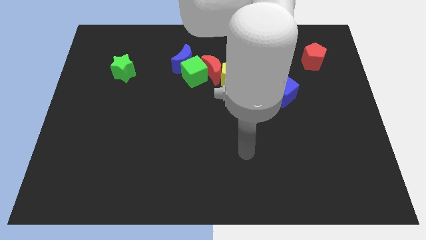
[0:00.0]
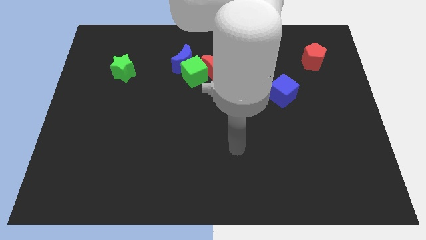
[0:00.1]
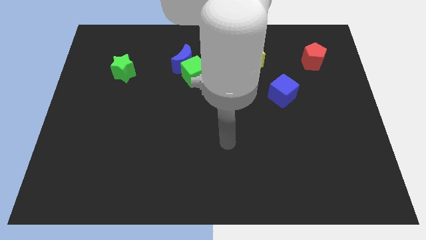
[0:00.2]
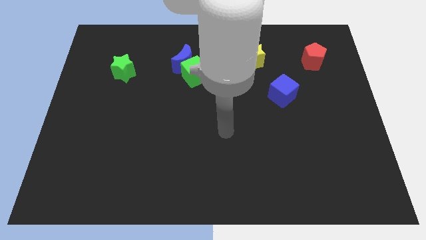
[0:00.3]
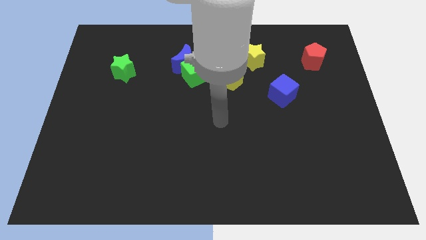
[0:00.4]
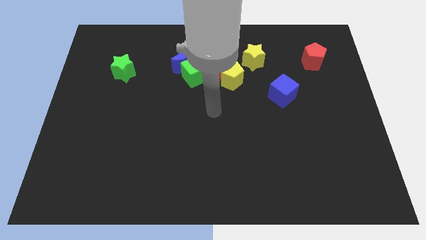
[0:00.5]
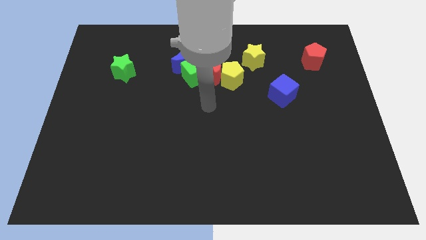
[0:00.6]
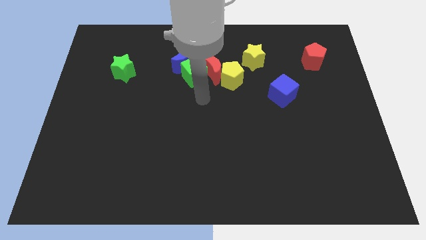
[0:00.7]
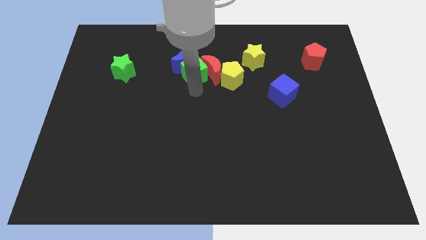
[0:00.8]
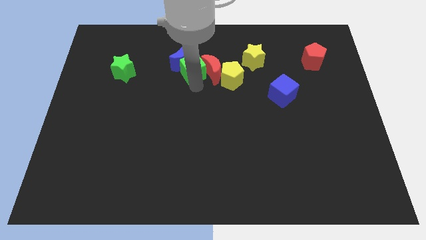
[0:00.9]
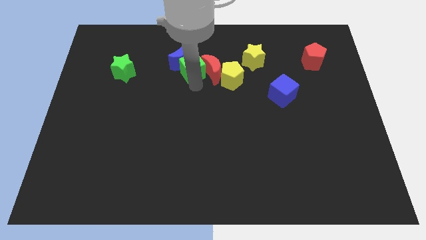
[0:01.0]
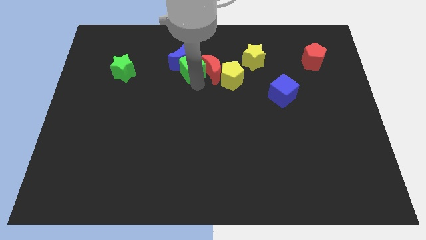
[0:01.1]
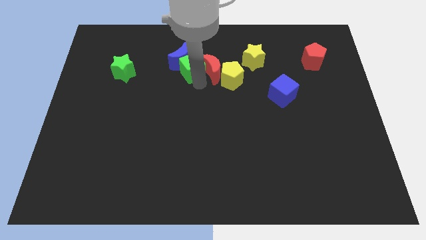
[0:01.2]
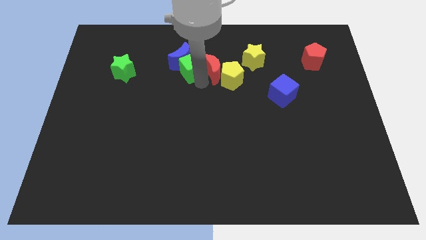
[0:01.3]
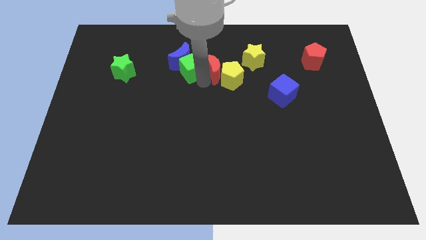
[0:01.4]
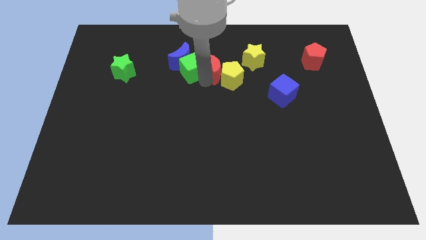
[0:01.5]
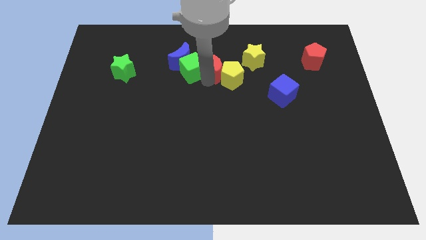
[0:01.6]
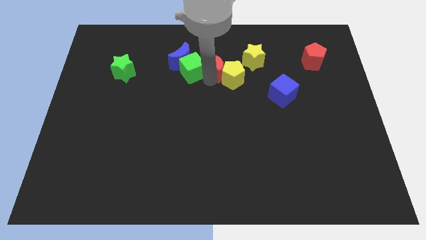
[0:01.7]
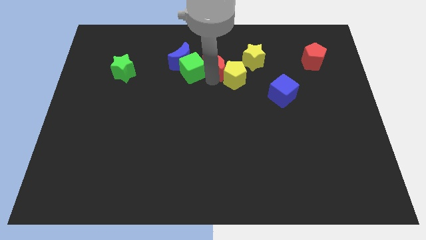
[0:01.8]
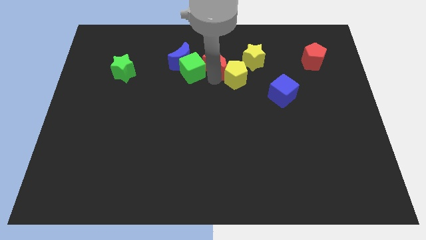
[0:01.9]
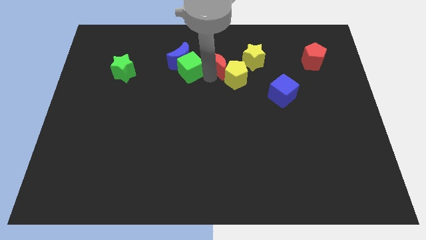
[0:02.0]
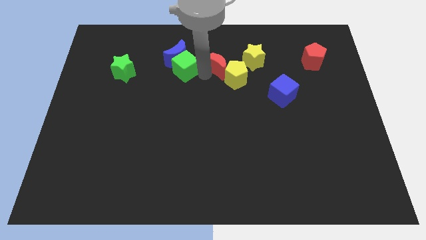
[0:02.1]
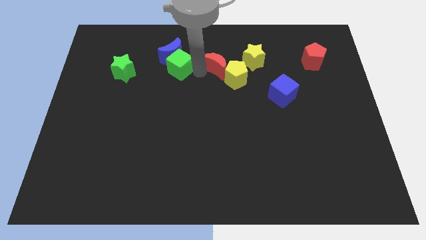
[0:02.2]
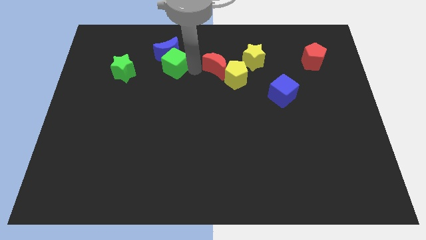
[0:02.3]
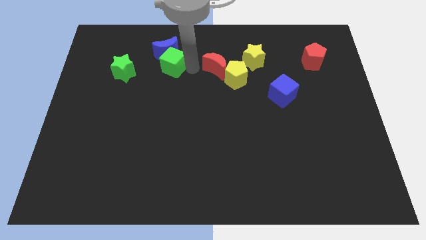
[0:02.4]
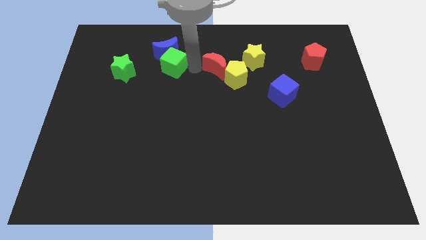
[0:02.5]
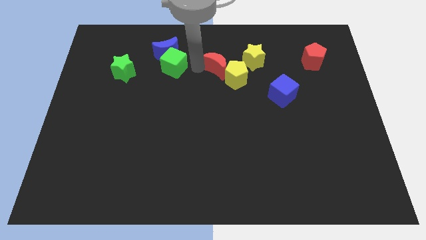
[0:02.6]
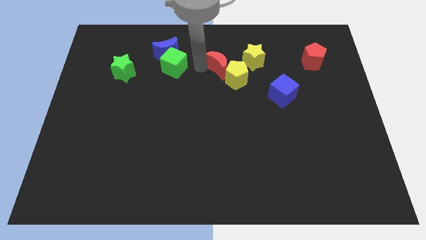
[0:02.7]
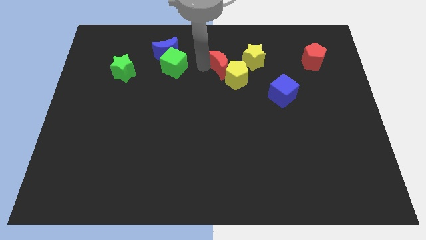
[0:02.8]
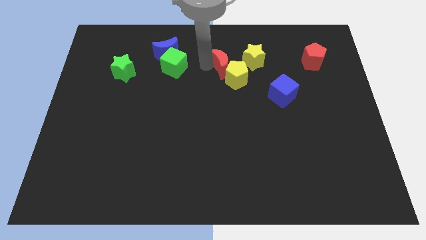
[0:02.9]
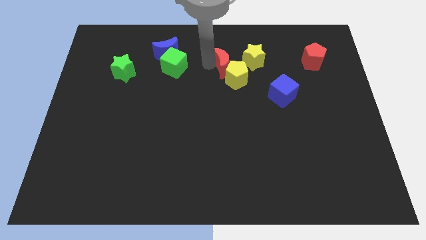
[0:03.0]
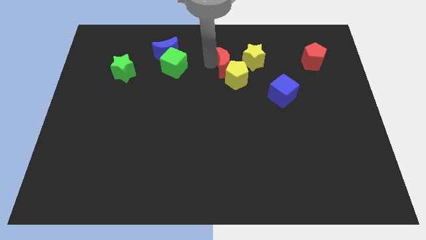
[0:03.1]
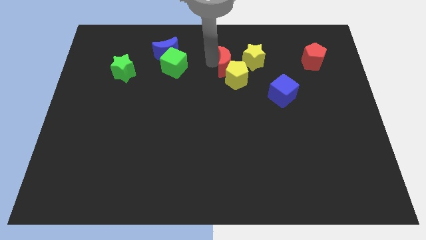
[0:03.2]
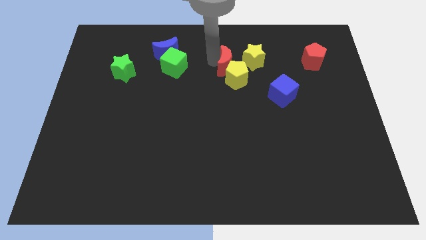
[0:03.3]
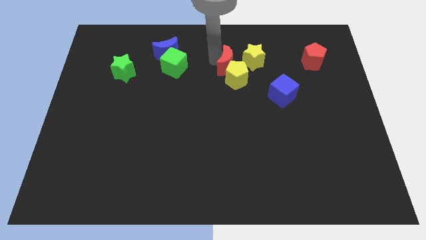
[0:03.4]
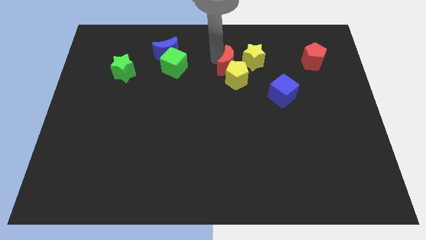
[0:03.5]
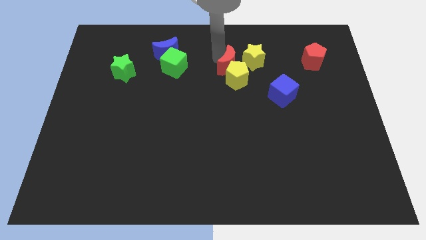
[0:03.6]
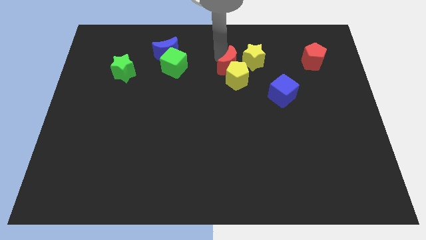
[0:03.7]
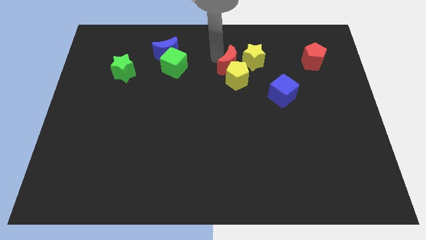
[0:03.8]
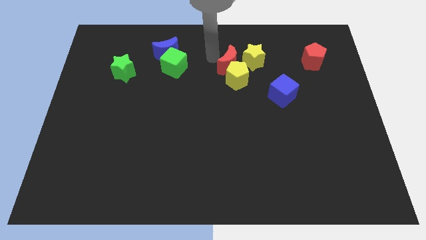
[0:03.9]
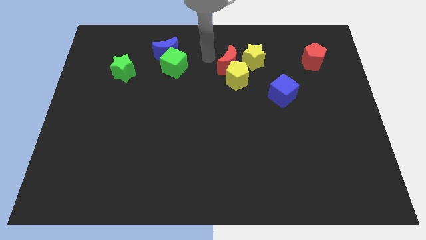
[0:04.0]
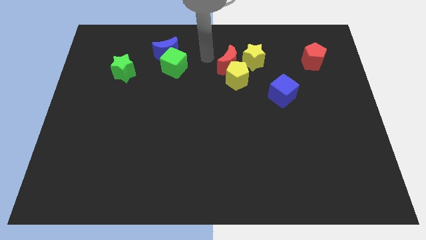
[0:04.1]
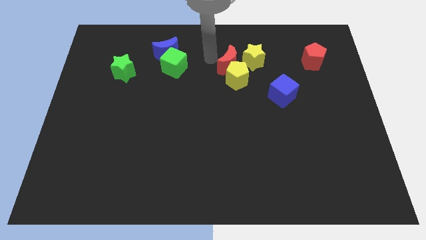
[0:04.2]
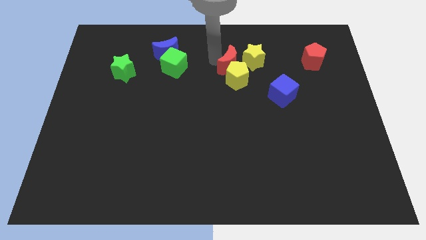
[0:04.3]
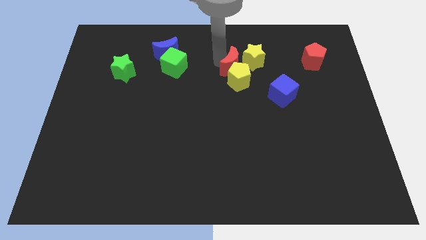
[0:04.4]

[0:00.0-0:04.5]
pull the red moon apart from the green cube, yellow pentagon, and blue moon

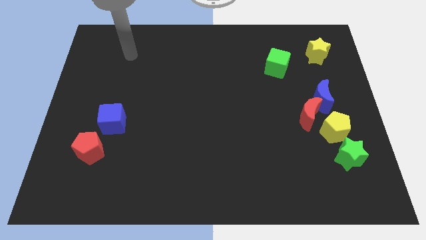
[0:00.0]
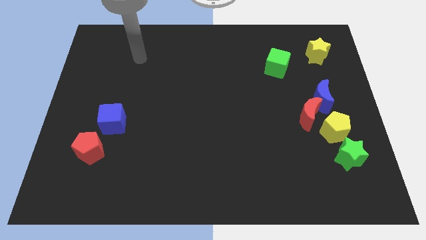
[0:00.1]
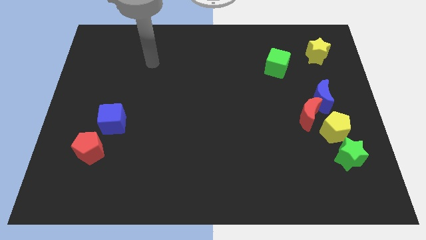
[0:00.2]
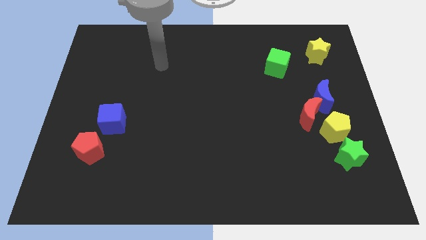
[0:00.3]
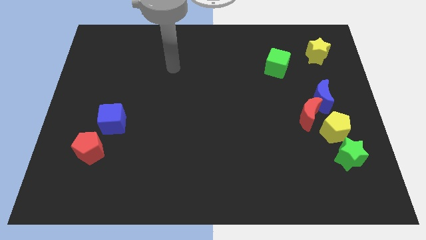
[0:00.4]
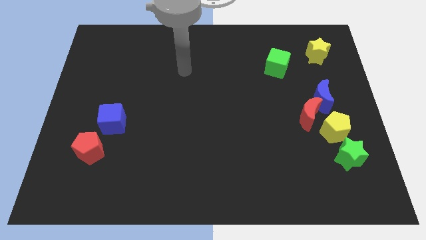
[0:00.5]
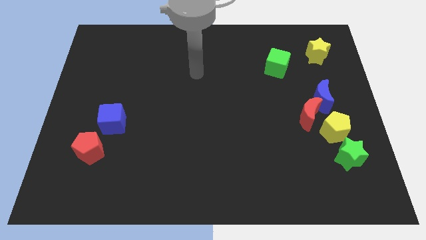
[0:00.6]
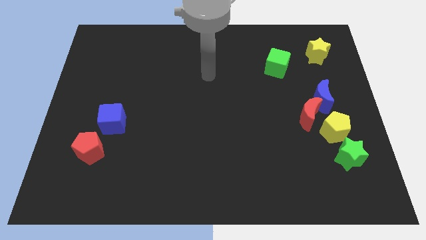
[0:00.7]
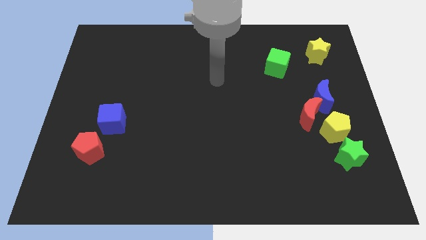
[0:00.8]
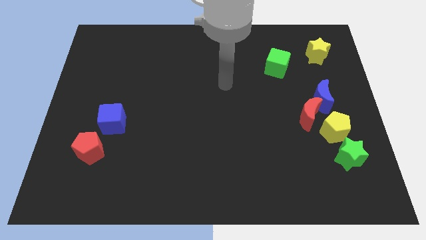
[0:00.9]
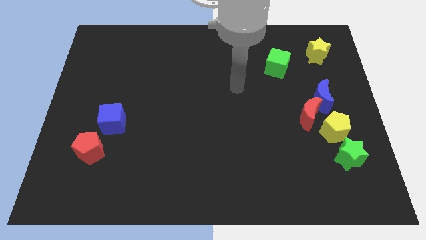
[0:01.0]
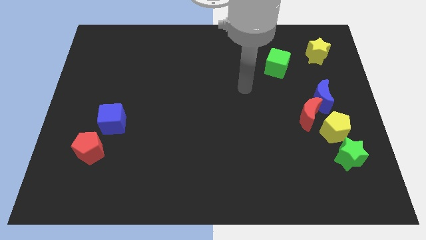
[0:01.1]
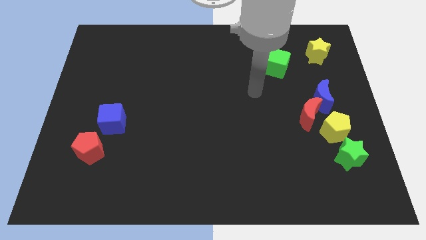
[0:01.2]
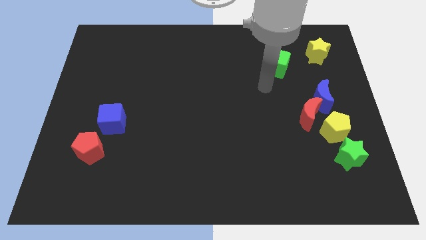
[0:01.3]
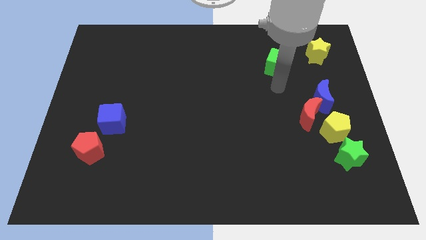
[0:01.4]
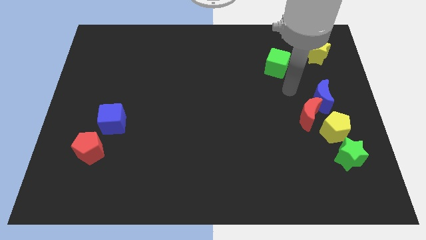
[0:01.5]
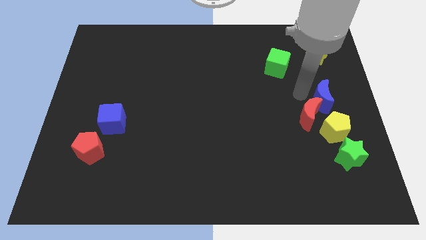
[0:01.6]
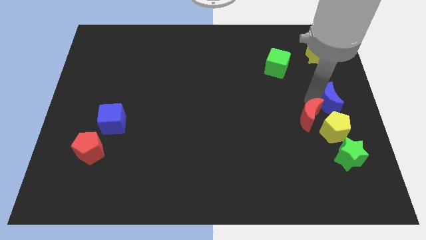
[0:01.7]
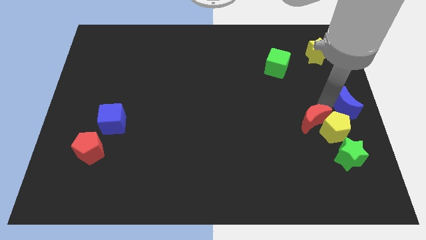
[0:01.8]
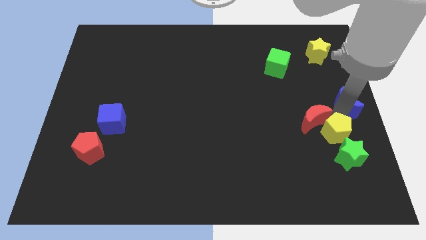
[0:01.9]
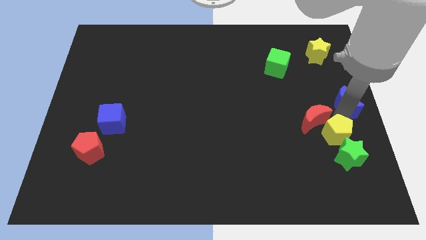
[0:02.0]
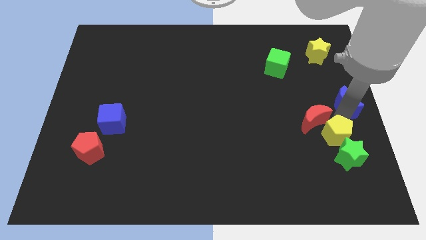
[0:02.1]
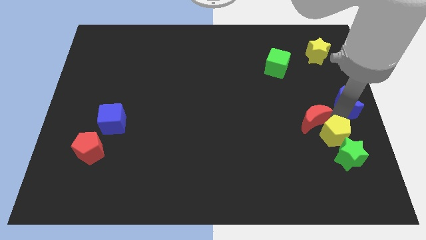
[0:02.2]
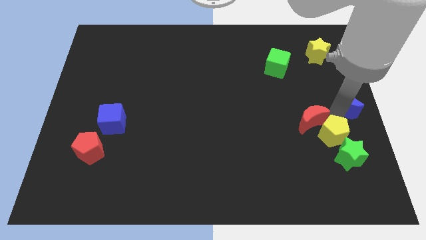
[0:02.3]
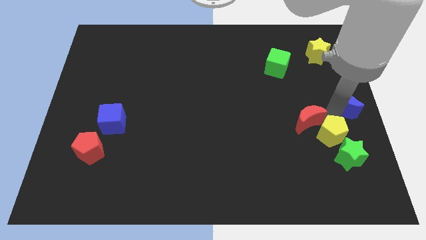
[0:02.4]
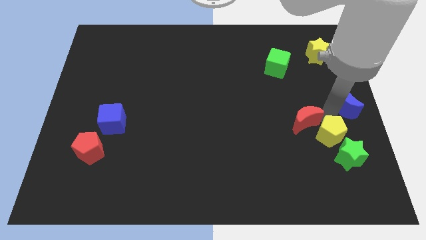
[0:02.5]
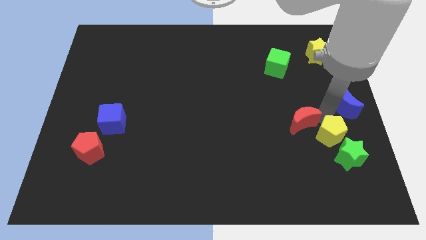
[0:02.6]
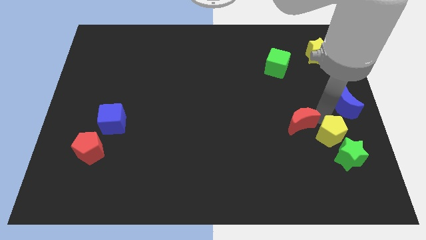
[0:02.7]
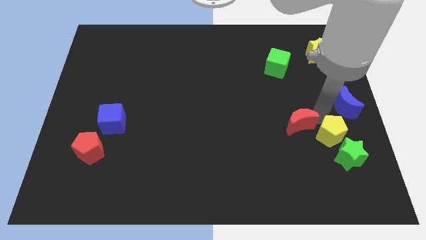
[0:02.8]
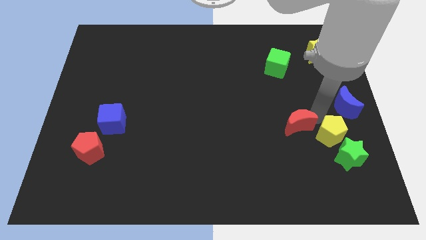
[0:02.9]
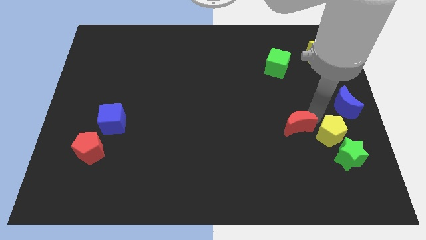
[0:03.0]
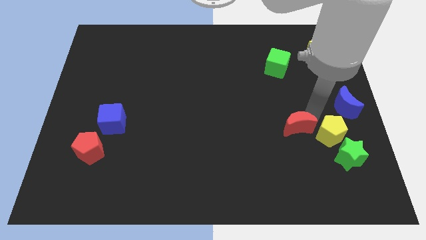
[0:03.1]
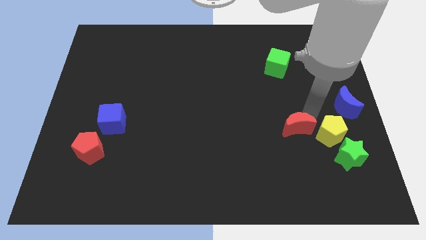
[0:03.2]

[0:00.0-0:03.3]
separate the red moon from the blue moon and yellow pentagon

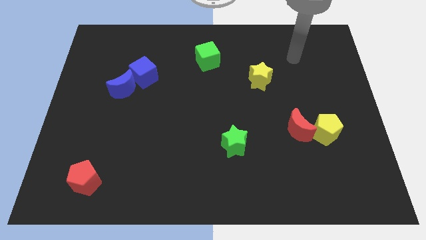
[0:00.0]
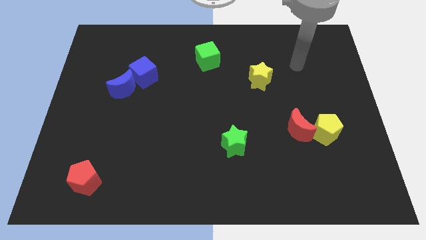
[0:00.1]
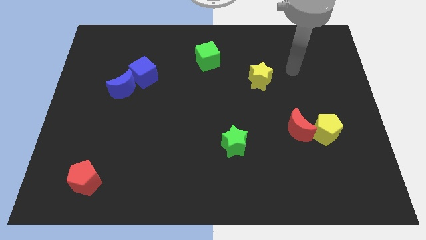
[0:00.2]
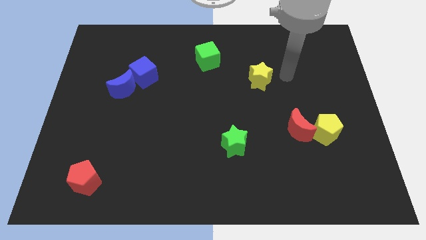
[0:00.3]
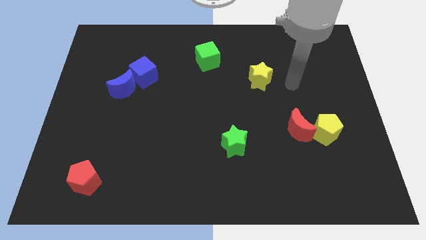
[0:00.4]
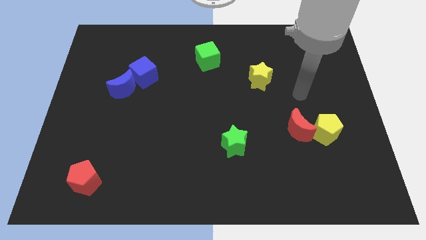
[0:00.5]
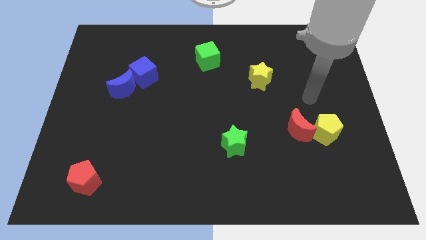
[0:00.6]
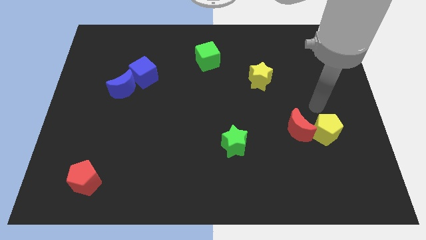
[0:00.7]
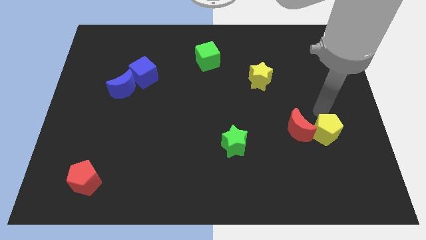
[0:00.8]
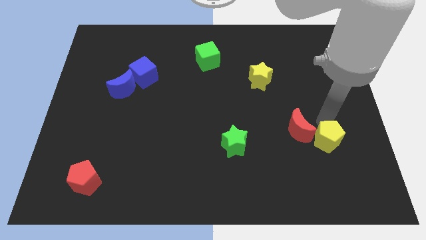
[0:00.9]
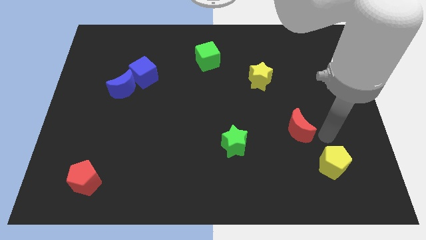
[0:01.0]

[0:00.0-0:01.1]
separate the red moon from the yellow pentagon

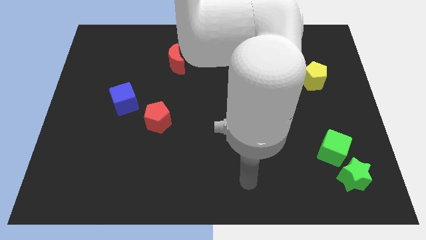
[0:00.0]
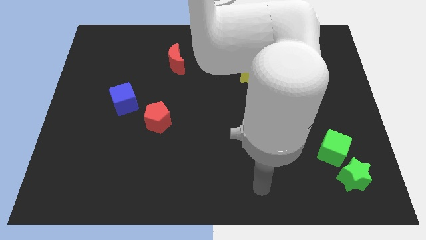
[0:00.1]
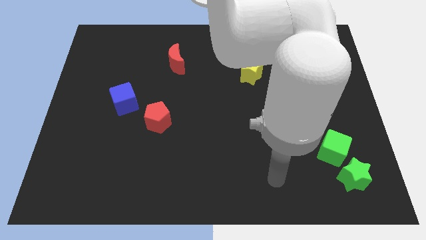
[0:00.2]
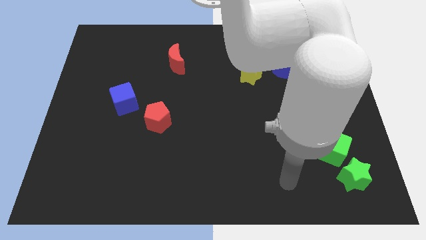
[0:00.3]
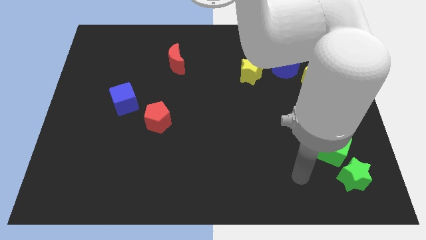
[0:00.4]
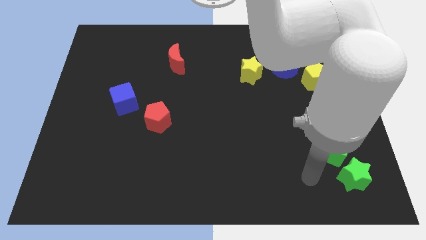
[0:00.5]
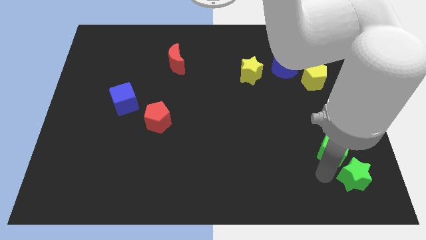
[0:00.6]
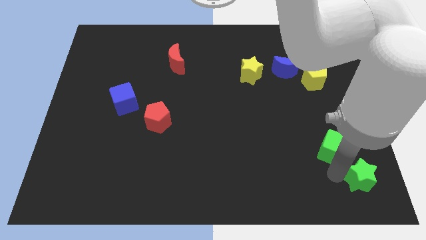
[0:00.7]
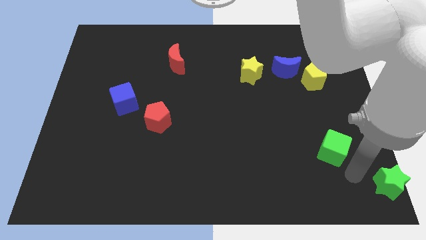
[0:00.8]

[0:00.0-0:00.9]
move the green cube away from the green star
